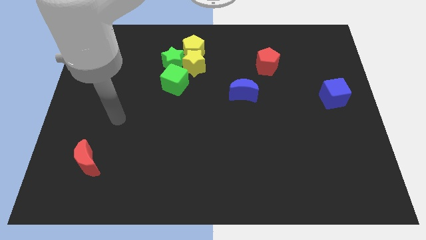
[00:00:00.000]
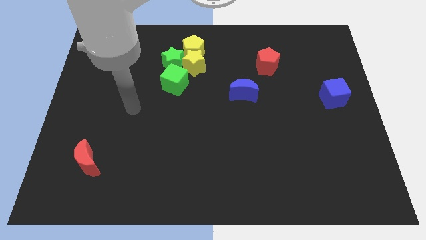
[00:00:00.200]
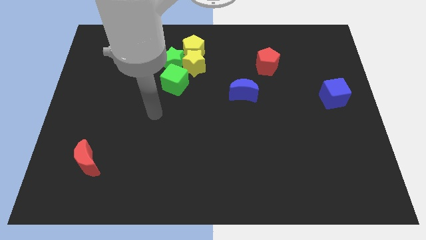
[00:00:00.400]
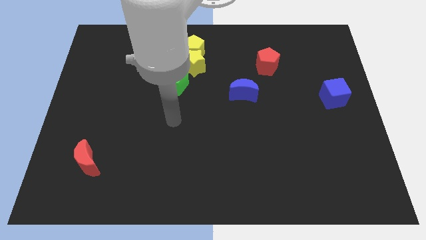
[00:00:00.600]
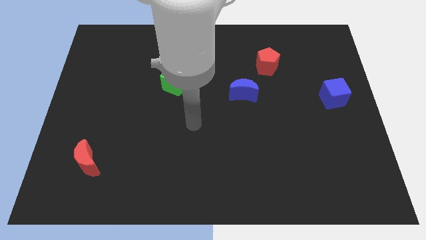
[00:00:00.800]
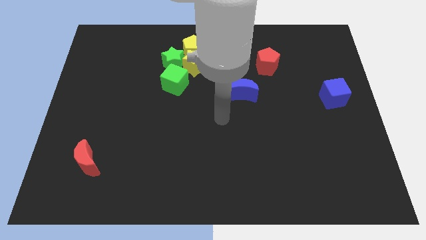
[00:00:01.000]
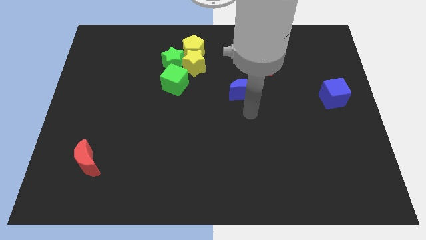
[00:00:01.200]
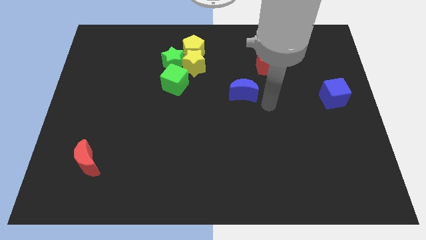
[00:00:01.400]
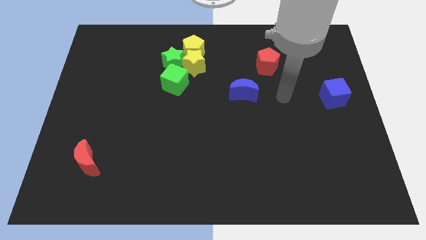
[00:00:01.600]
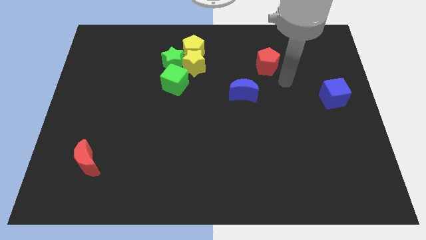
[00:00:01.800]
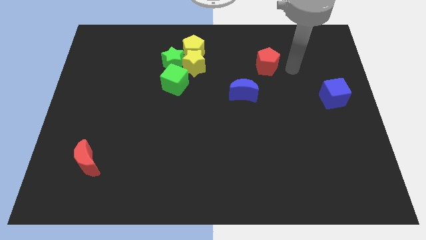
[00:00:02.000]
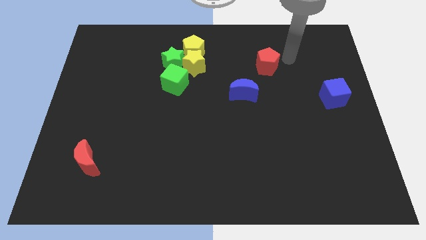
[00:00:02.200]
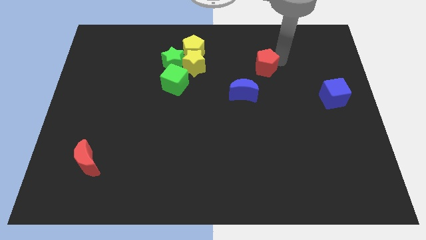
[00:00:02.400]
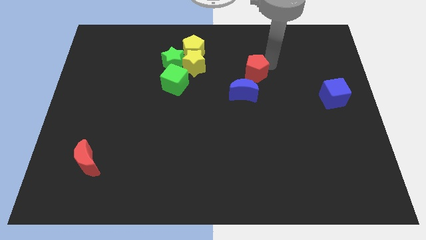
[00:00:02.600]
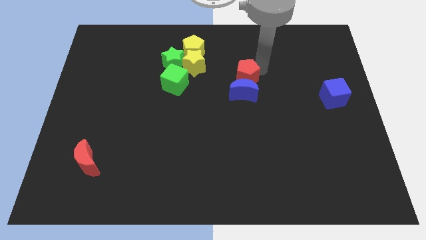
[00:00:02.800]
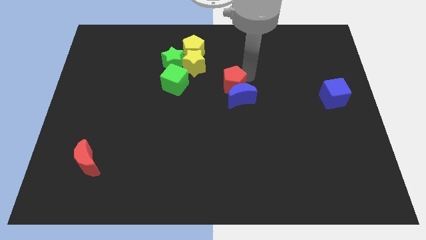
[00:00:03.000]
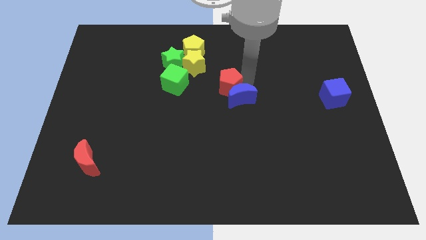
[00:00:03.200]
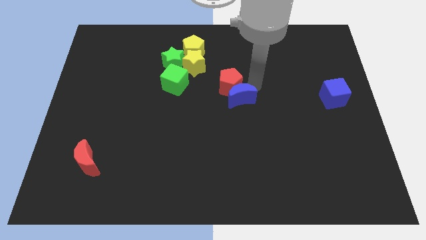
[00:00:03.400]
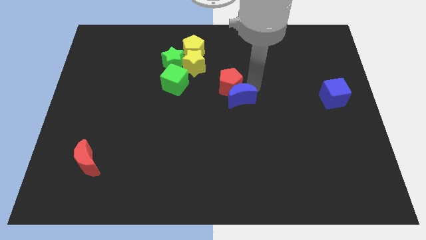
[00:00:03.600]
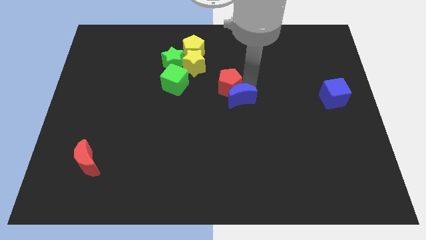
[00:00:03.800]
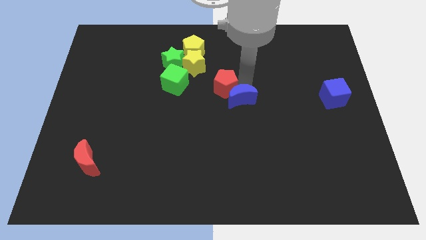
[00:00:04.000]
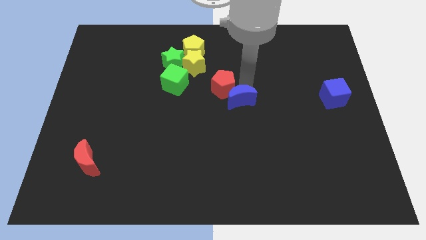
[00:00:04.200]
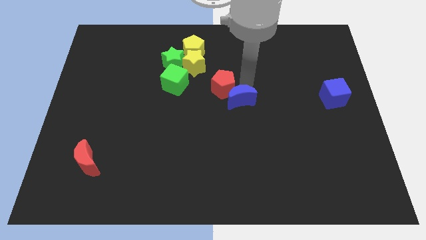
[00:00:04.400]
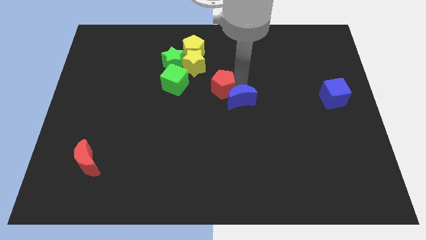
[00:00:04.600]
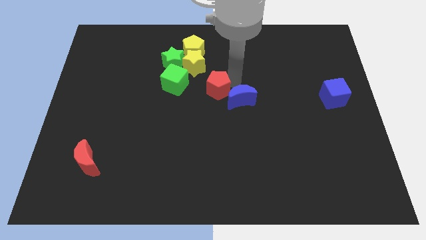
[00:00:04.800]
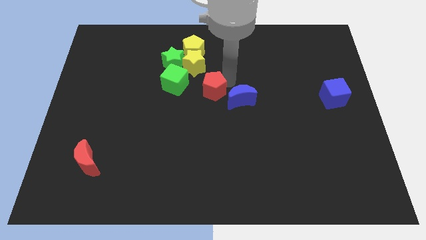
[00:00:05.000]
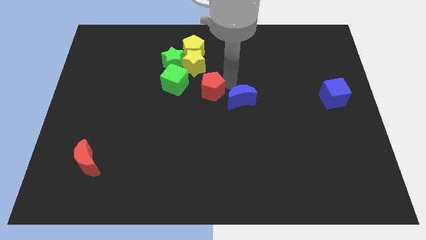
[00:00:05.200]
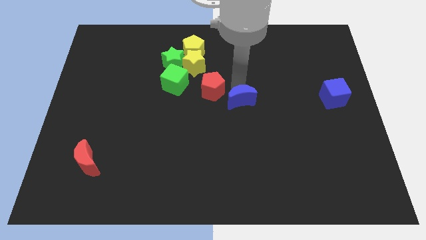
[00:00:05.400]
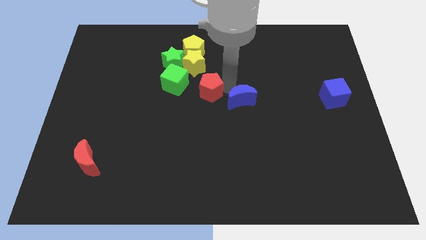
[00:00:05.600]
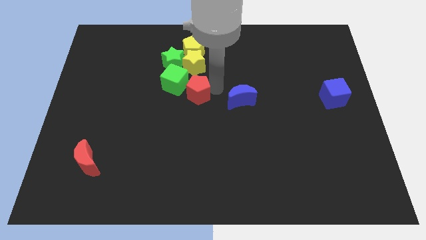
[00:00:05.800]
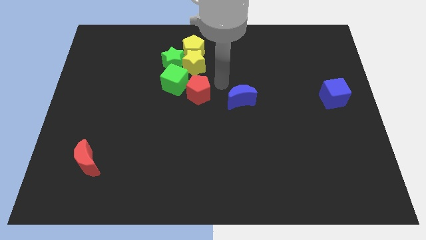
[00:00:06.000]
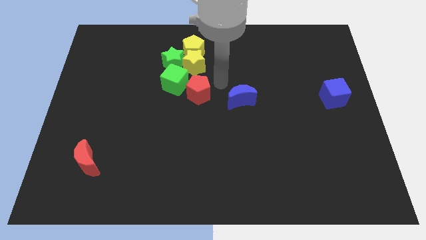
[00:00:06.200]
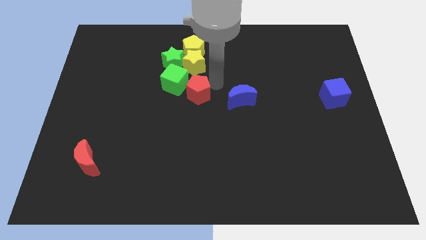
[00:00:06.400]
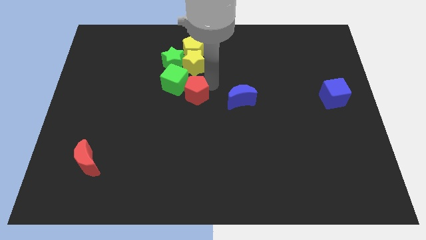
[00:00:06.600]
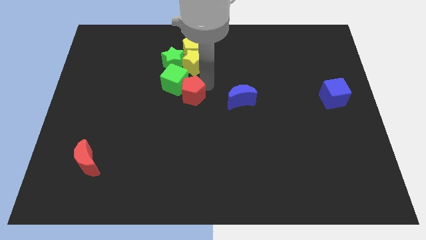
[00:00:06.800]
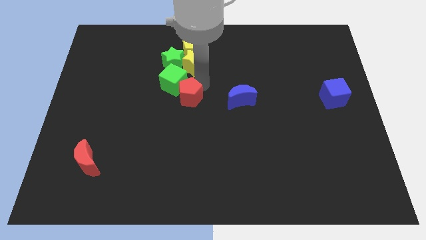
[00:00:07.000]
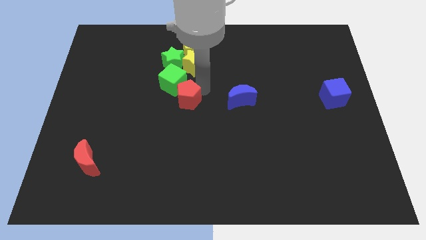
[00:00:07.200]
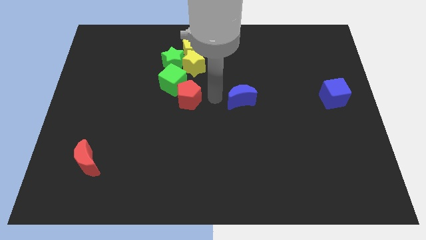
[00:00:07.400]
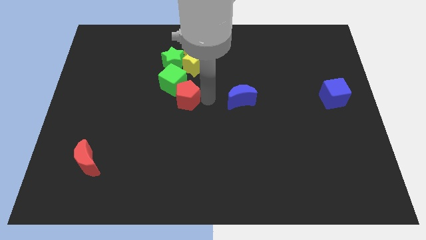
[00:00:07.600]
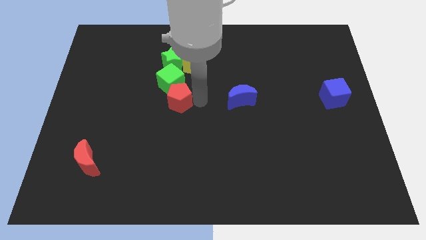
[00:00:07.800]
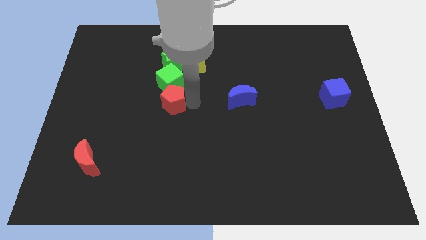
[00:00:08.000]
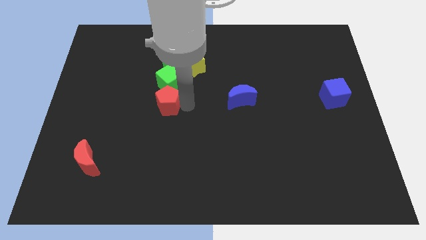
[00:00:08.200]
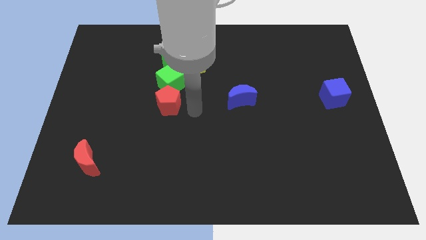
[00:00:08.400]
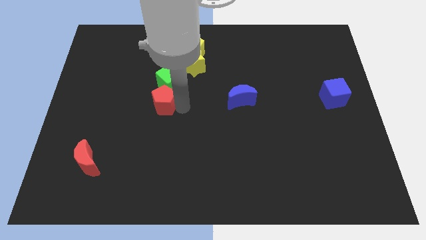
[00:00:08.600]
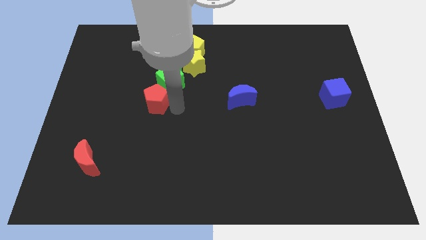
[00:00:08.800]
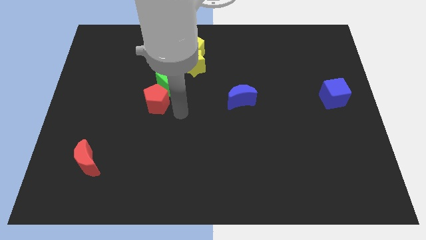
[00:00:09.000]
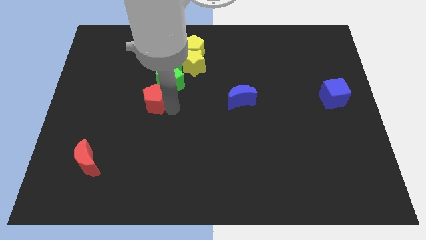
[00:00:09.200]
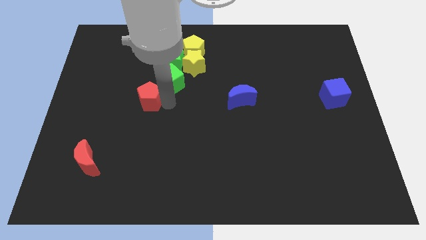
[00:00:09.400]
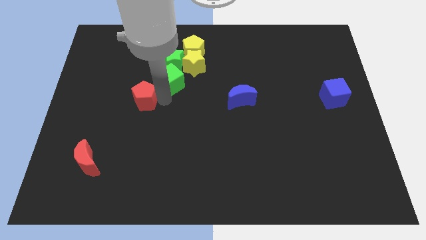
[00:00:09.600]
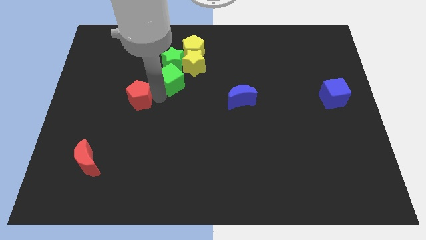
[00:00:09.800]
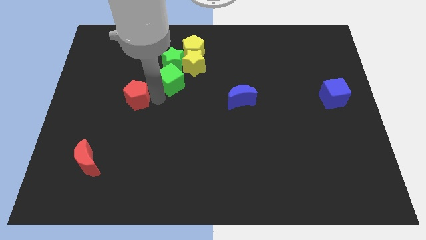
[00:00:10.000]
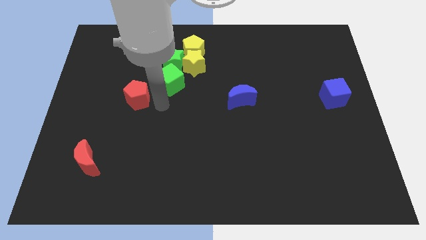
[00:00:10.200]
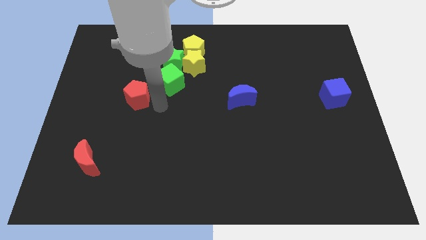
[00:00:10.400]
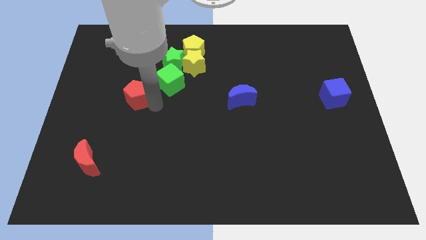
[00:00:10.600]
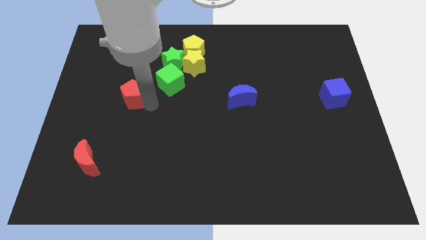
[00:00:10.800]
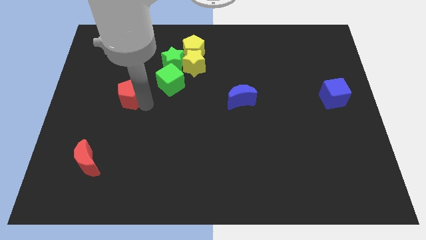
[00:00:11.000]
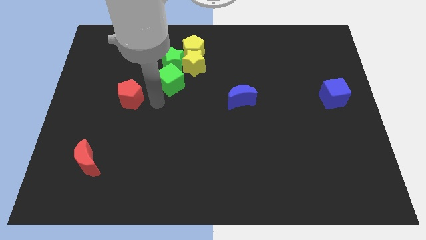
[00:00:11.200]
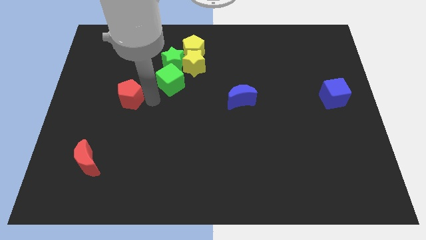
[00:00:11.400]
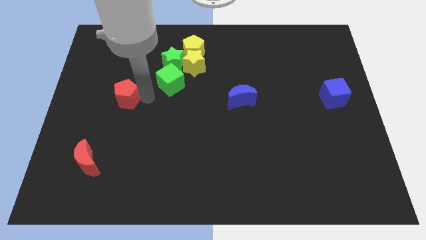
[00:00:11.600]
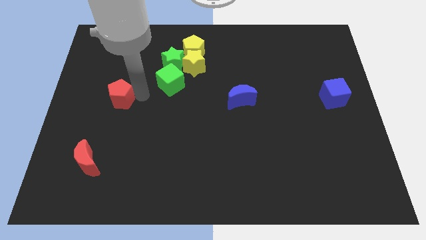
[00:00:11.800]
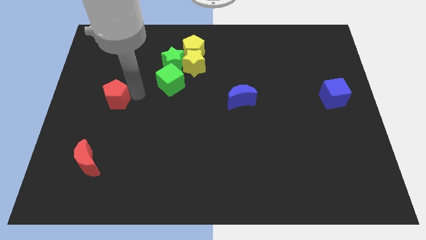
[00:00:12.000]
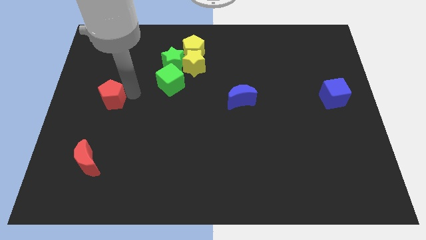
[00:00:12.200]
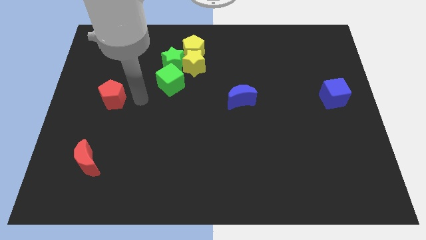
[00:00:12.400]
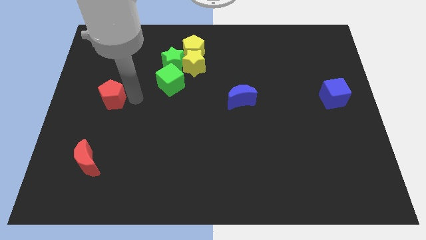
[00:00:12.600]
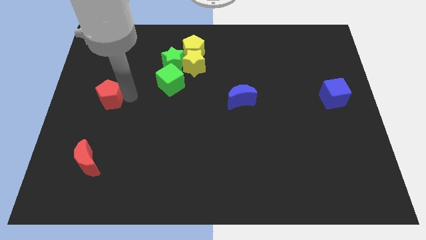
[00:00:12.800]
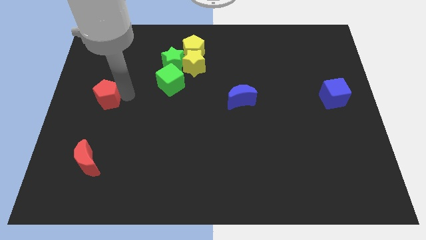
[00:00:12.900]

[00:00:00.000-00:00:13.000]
slide the red pentagon to the center left
